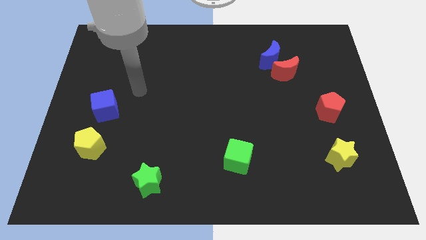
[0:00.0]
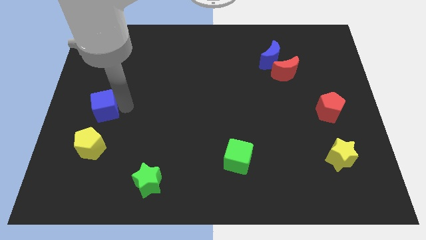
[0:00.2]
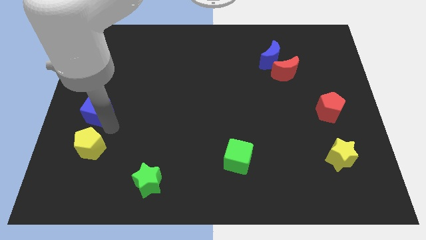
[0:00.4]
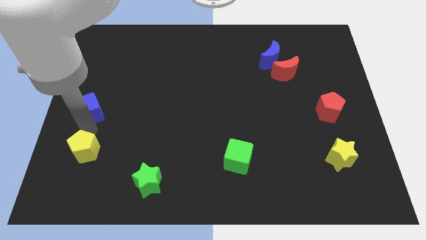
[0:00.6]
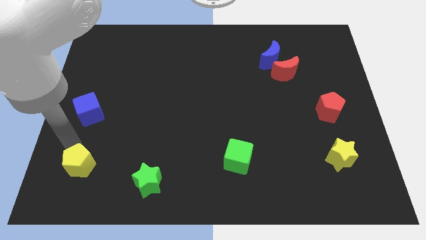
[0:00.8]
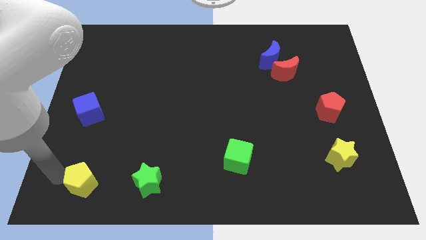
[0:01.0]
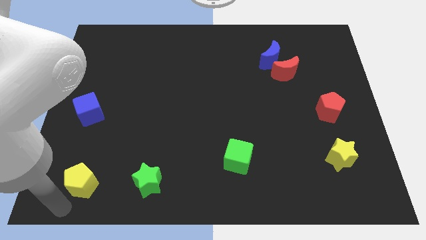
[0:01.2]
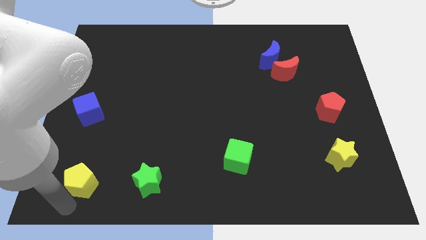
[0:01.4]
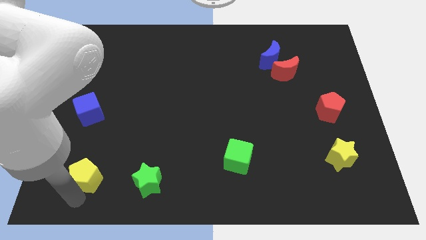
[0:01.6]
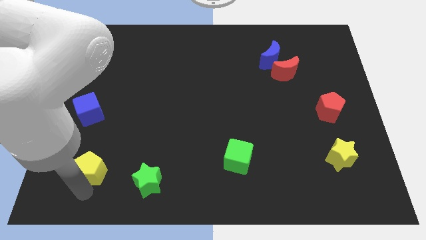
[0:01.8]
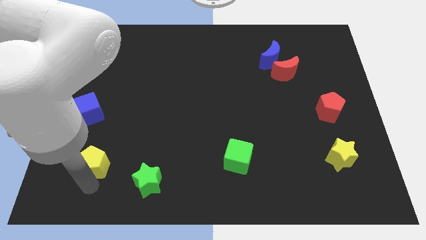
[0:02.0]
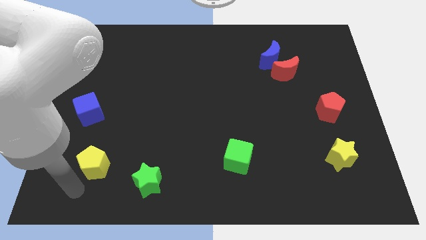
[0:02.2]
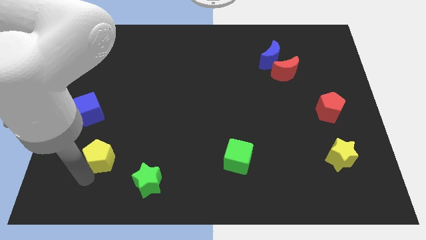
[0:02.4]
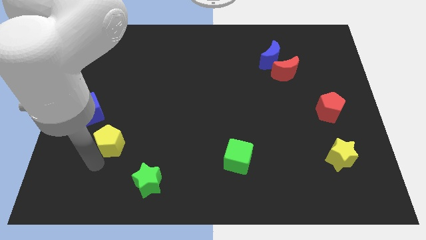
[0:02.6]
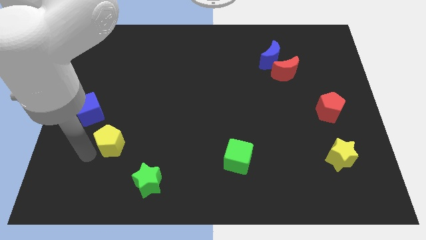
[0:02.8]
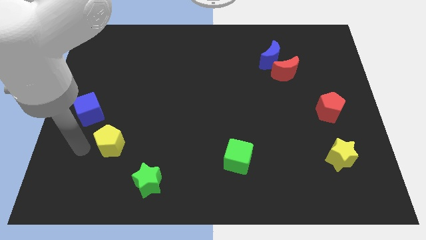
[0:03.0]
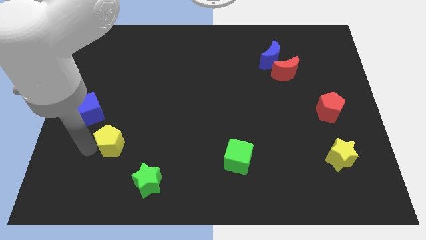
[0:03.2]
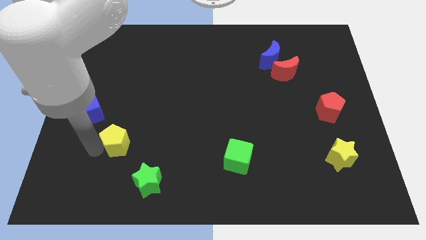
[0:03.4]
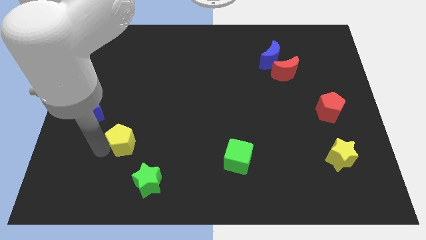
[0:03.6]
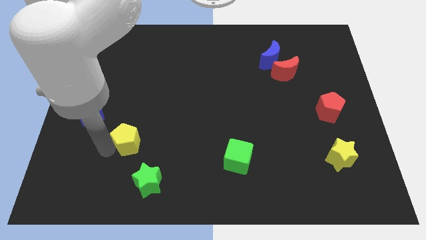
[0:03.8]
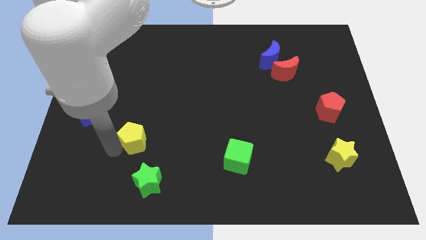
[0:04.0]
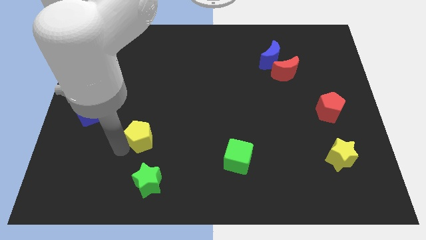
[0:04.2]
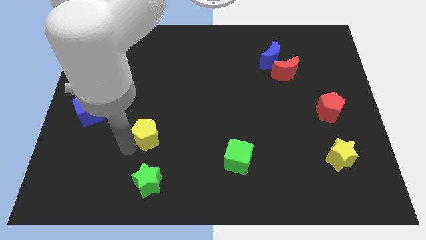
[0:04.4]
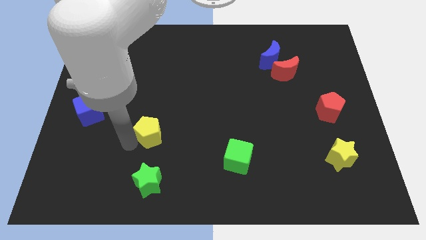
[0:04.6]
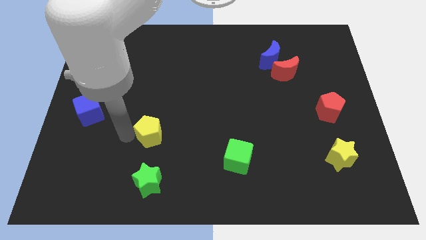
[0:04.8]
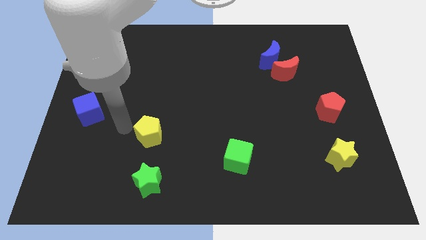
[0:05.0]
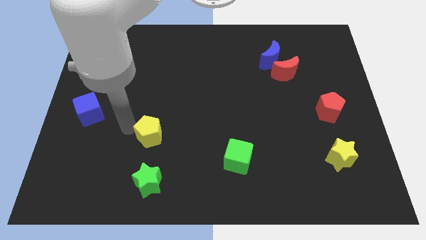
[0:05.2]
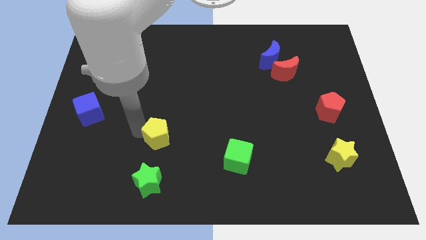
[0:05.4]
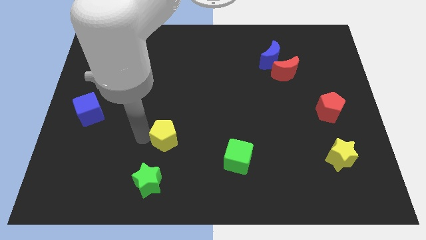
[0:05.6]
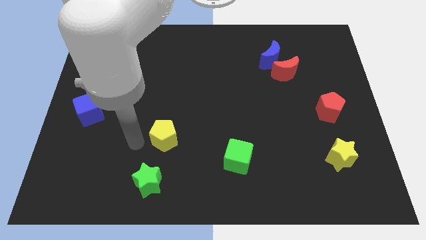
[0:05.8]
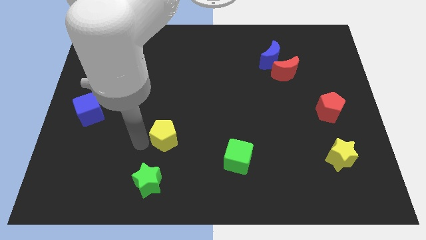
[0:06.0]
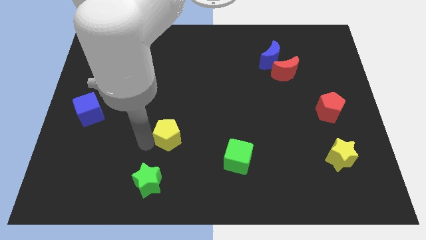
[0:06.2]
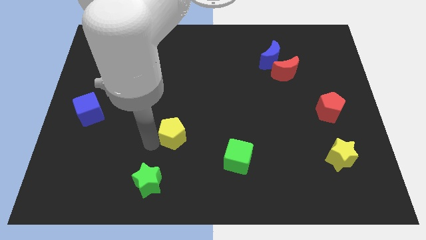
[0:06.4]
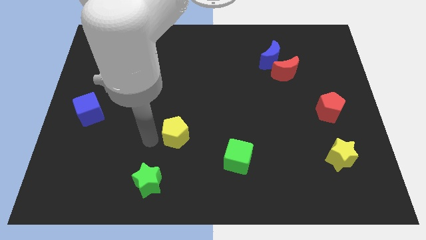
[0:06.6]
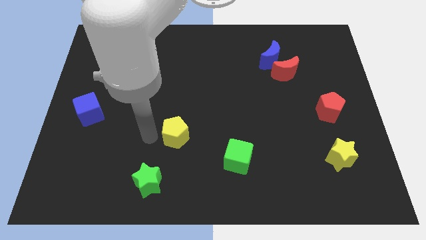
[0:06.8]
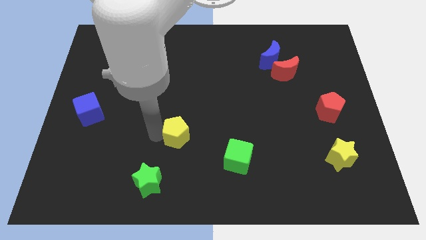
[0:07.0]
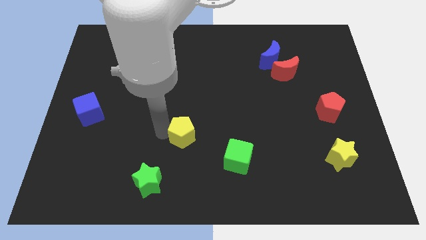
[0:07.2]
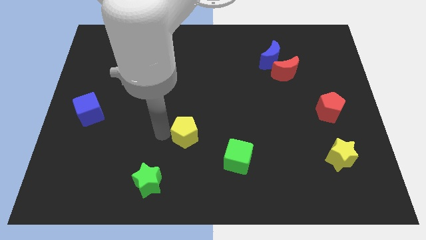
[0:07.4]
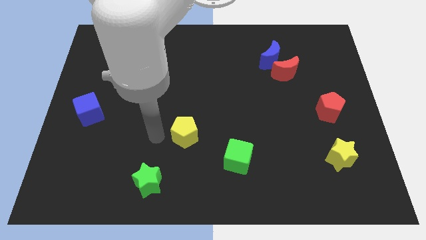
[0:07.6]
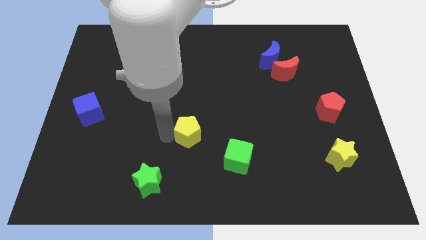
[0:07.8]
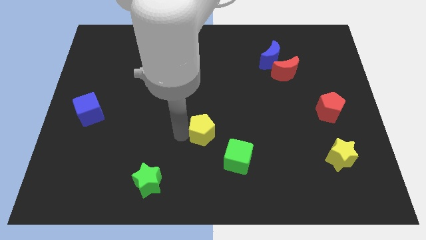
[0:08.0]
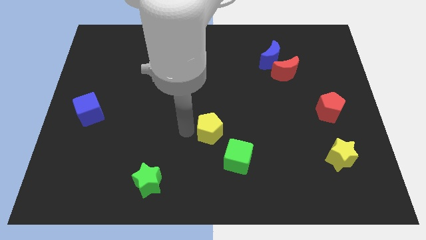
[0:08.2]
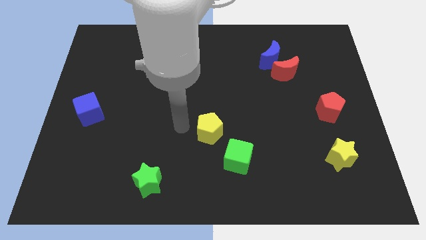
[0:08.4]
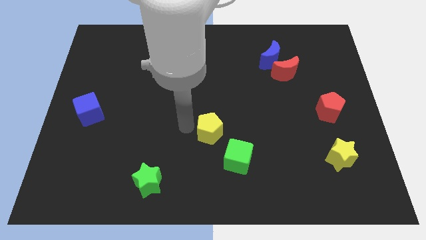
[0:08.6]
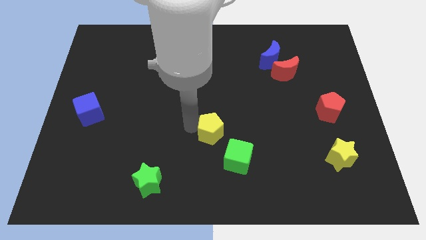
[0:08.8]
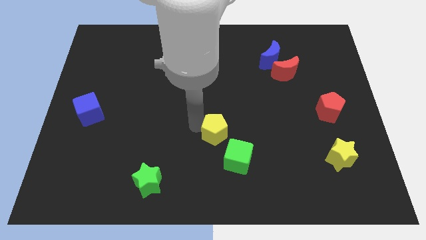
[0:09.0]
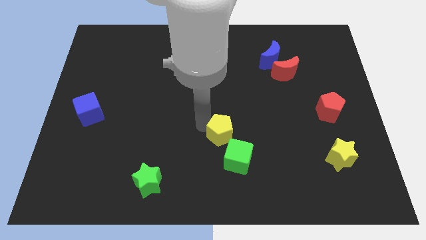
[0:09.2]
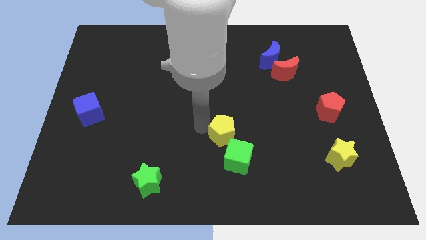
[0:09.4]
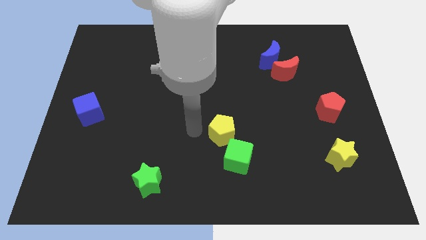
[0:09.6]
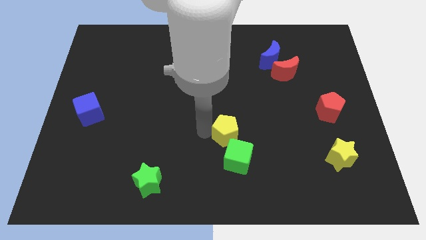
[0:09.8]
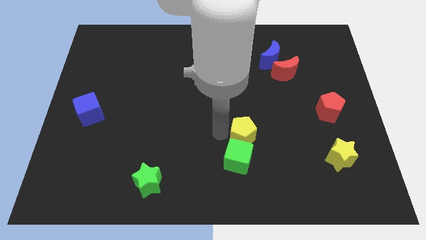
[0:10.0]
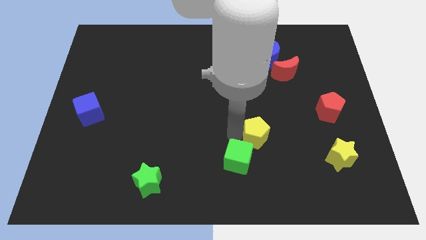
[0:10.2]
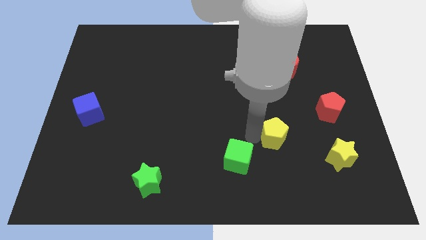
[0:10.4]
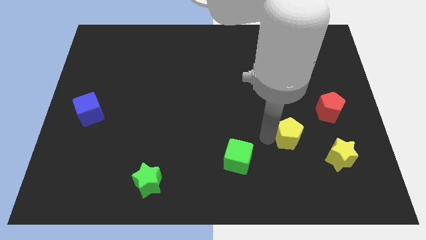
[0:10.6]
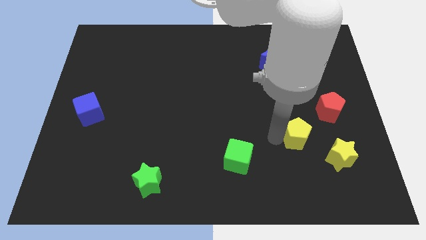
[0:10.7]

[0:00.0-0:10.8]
put the yellow pentagon to the bottom left of the red pentagon
